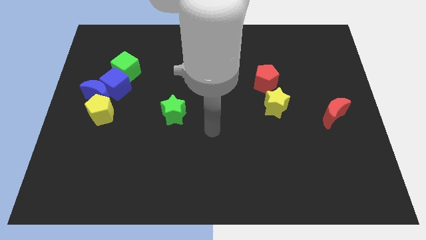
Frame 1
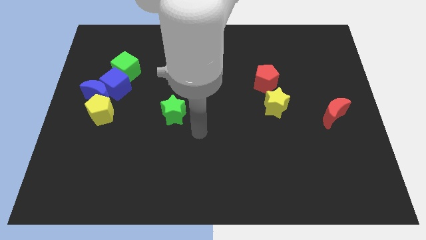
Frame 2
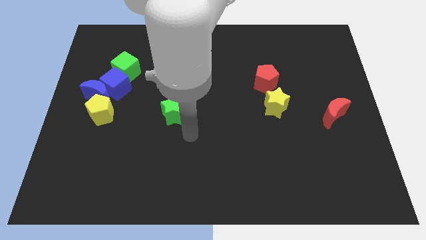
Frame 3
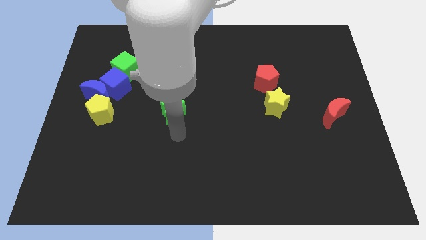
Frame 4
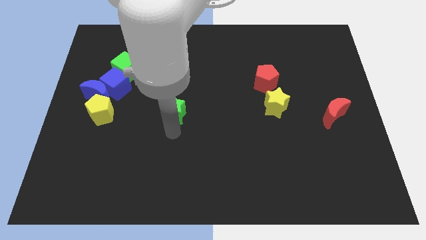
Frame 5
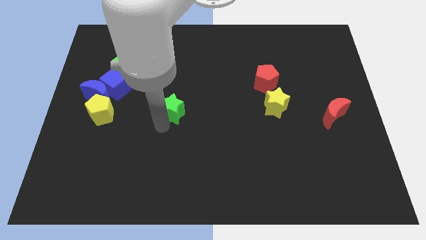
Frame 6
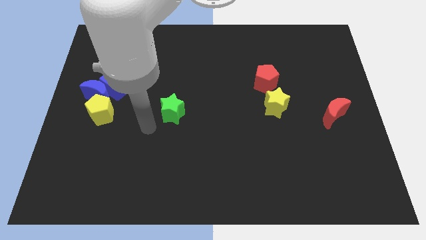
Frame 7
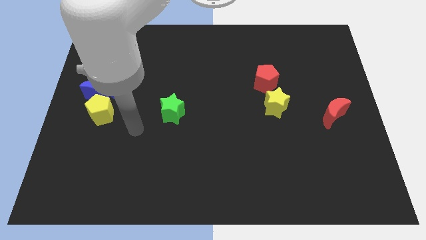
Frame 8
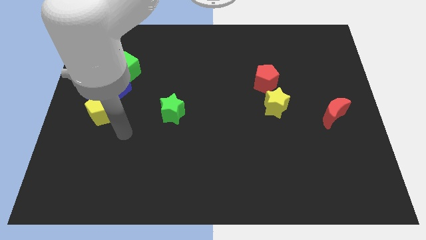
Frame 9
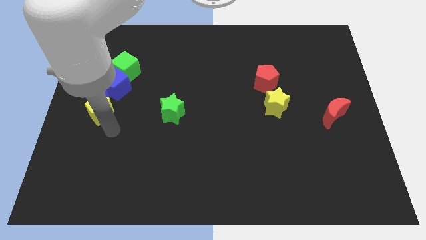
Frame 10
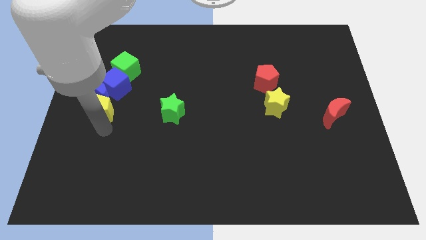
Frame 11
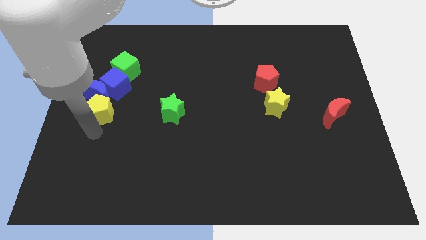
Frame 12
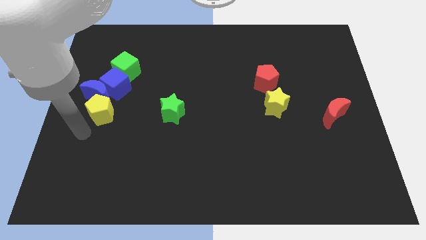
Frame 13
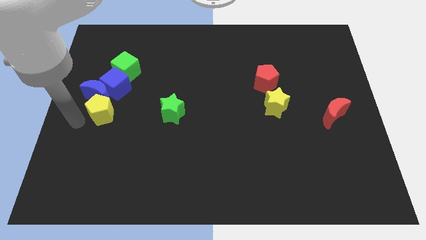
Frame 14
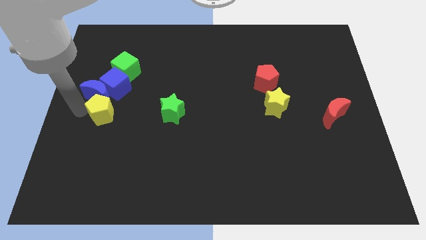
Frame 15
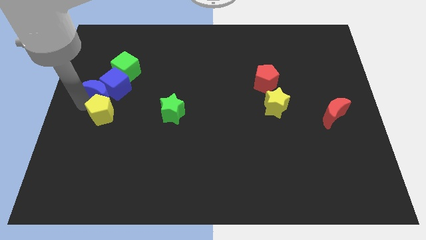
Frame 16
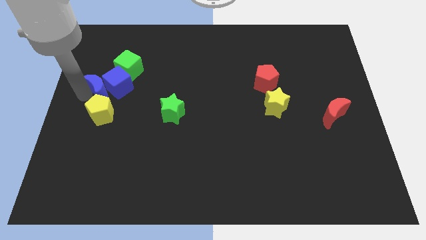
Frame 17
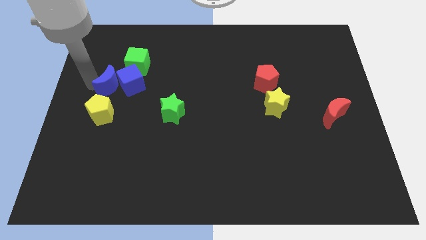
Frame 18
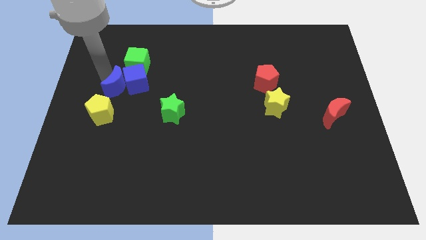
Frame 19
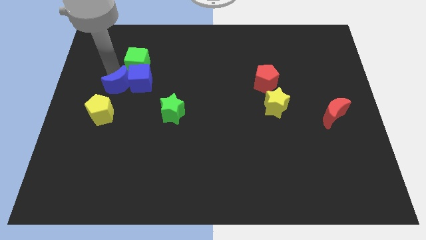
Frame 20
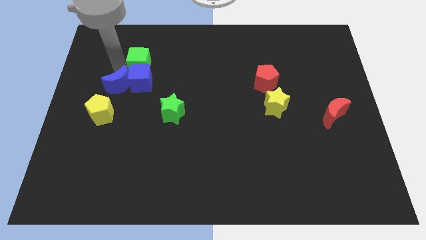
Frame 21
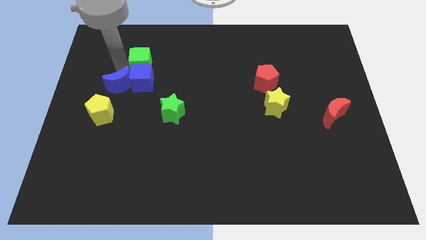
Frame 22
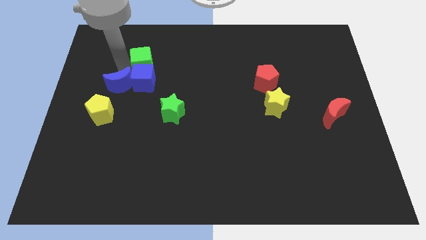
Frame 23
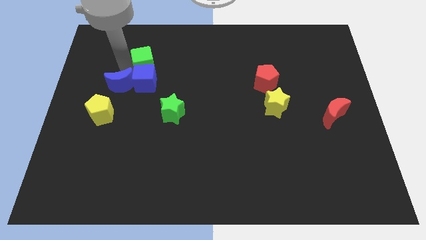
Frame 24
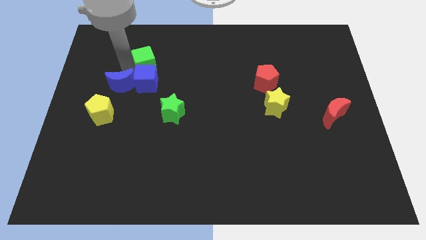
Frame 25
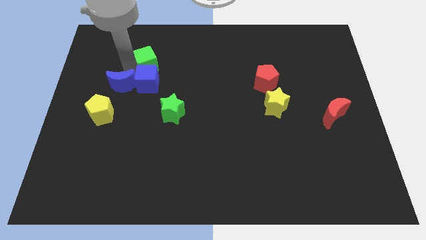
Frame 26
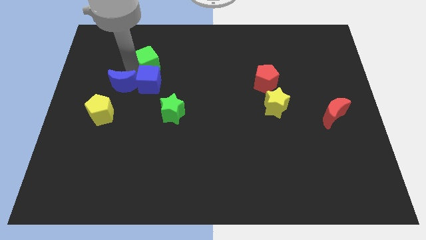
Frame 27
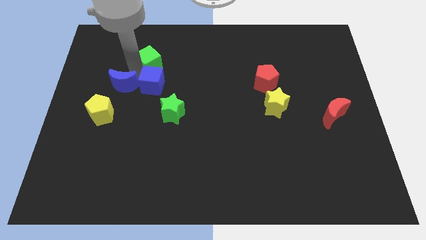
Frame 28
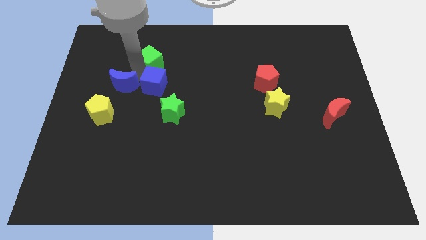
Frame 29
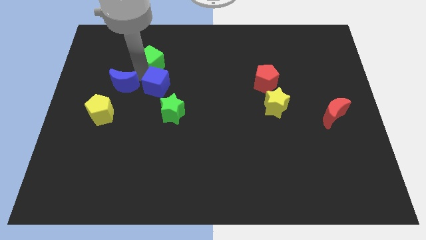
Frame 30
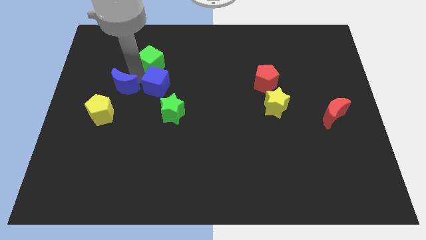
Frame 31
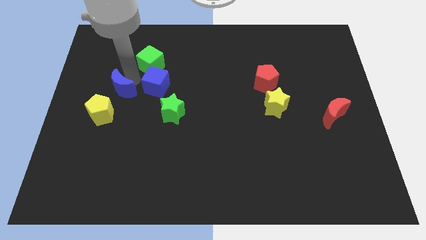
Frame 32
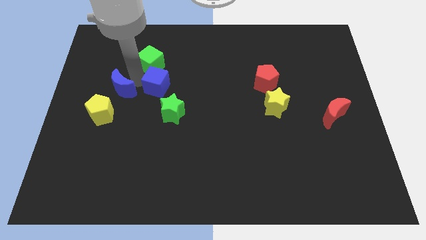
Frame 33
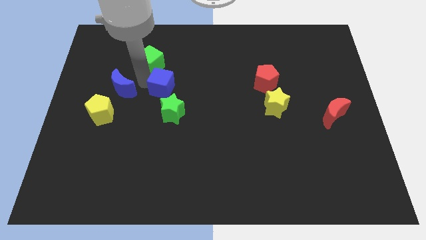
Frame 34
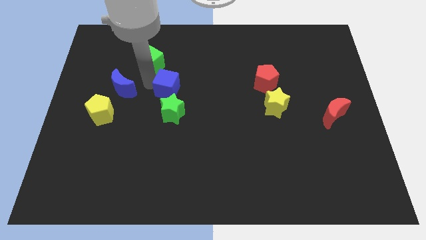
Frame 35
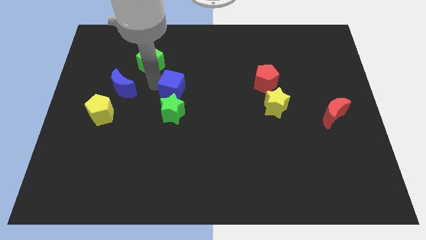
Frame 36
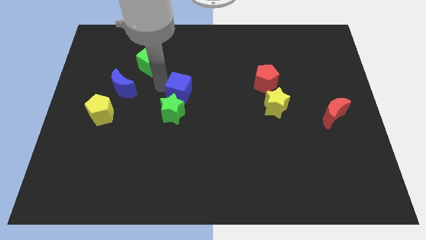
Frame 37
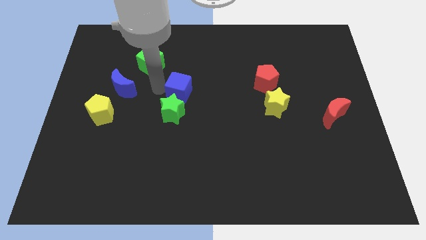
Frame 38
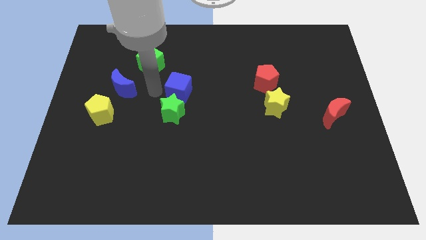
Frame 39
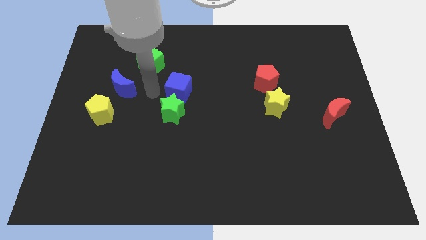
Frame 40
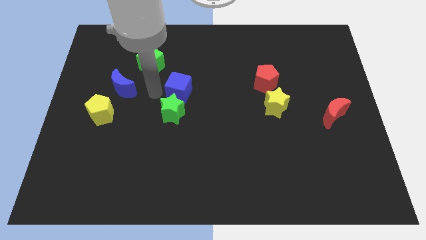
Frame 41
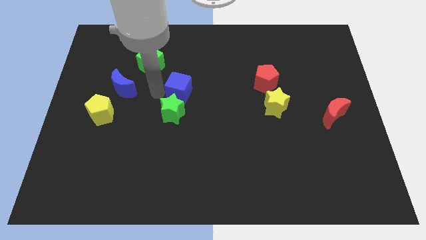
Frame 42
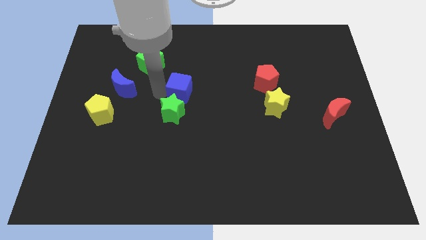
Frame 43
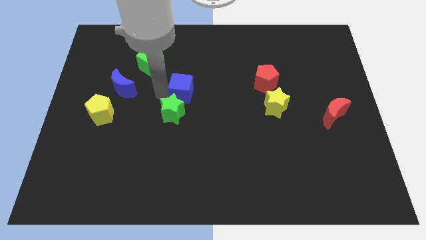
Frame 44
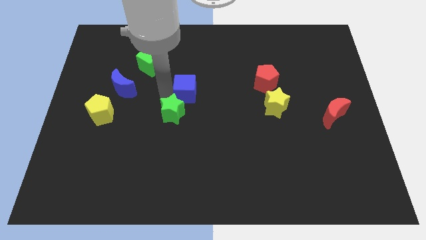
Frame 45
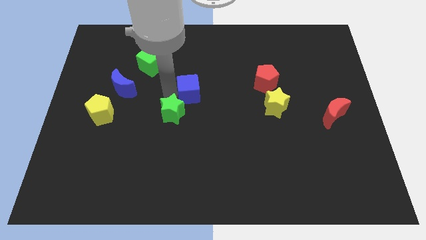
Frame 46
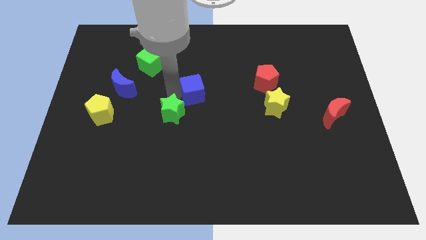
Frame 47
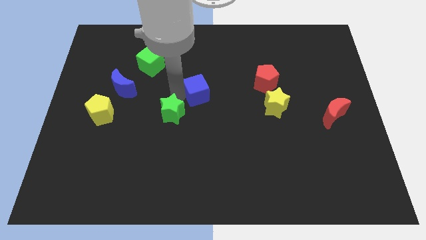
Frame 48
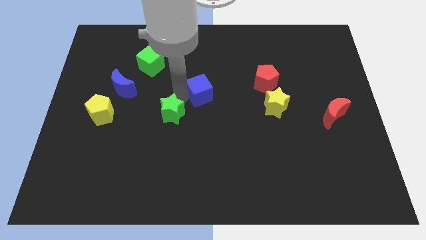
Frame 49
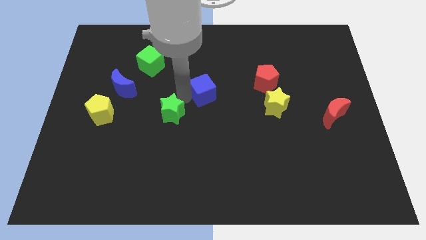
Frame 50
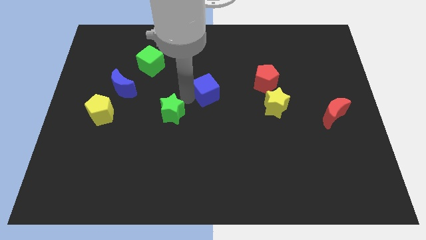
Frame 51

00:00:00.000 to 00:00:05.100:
slide the blue cube to the left side of the red pentagon

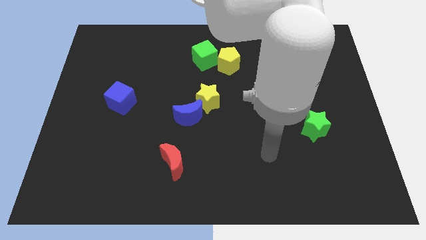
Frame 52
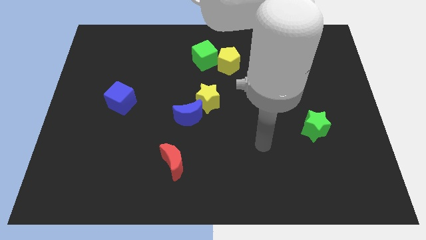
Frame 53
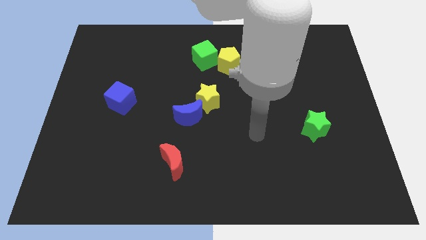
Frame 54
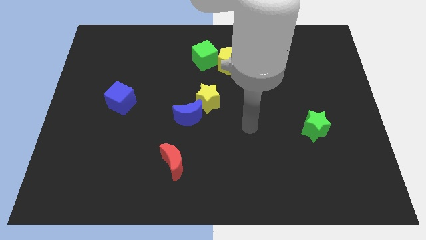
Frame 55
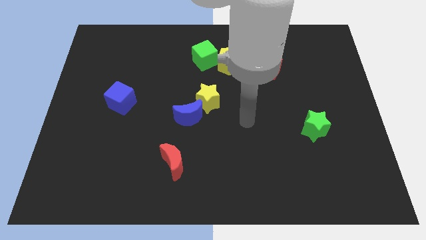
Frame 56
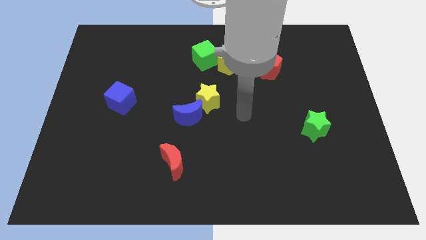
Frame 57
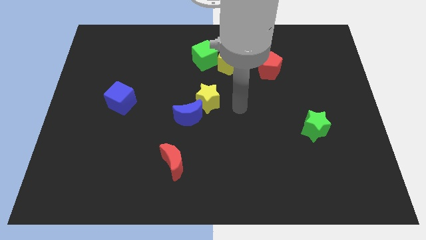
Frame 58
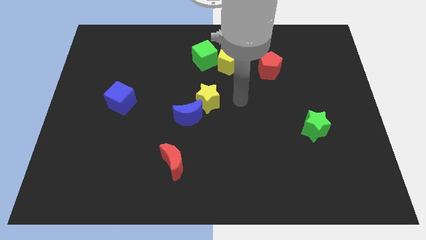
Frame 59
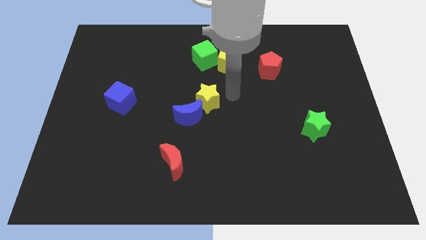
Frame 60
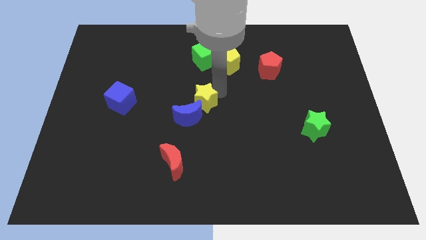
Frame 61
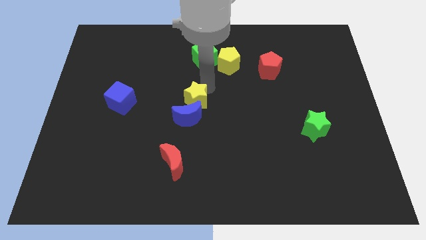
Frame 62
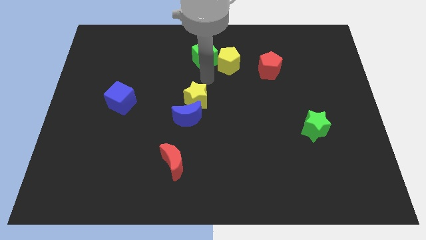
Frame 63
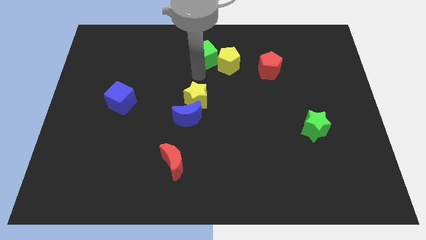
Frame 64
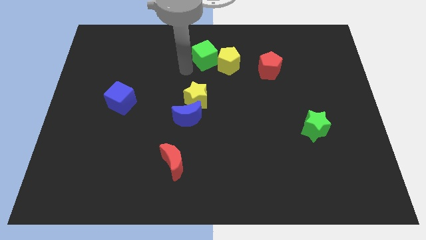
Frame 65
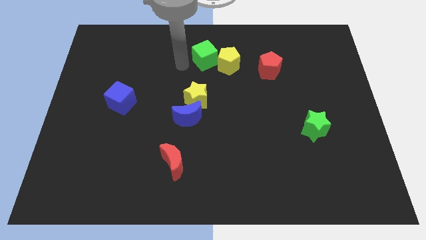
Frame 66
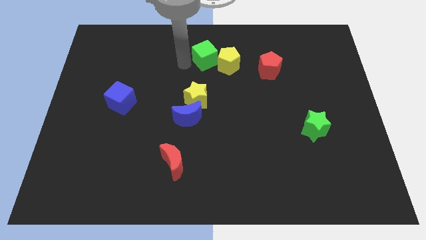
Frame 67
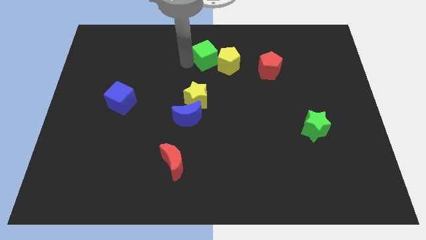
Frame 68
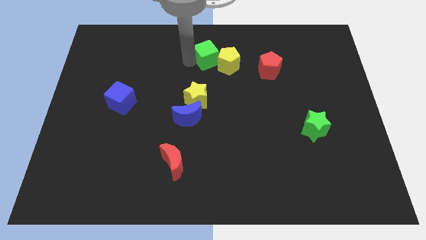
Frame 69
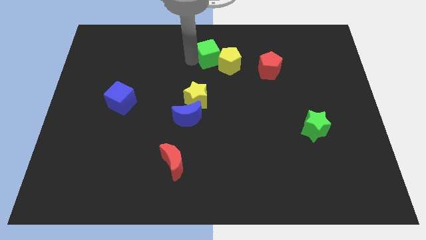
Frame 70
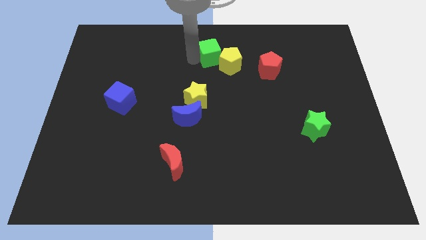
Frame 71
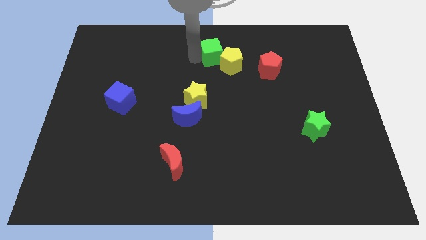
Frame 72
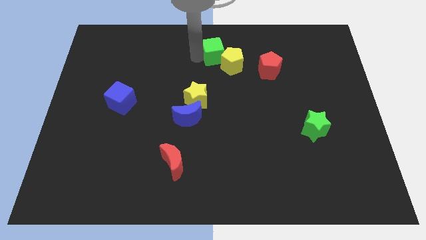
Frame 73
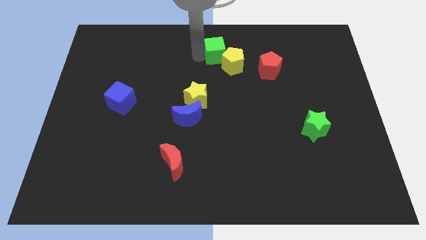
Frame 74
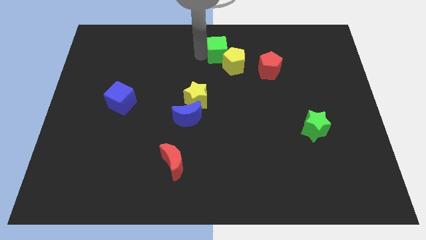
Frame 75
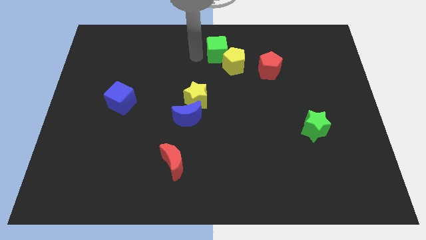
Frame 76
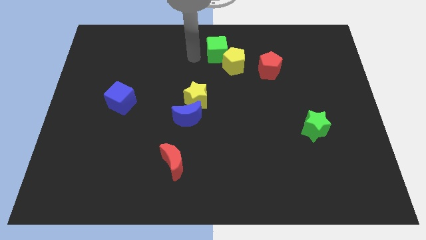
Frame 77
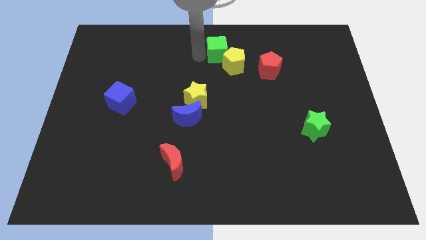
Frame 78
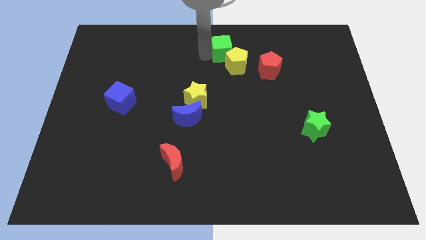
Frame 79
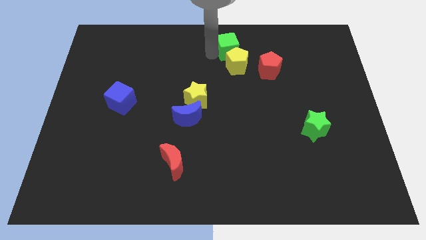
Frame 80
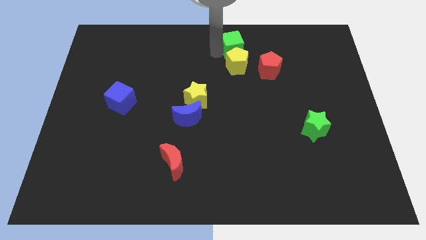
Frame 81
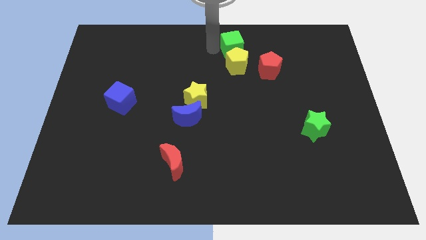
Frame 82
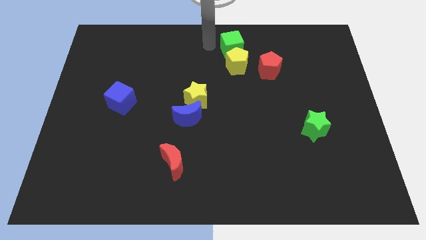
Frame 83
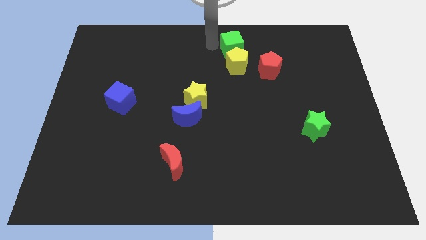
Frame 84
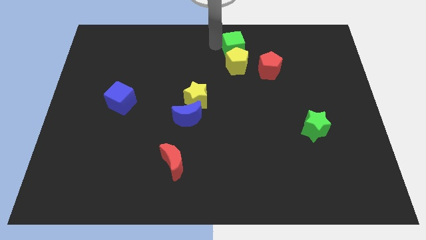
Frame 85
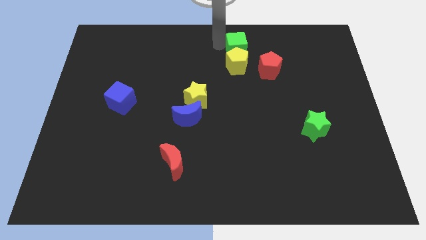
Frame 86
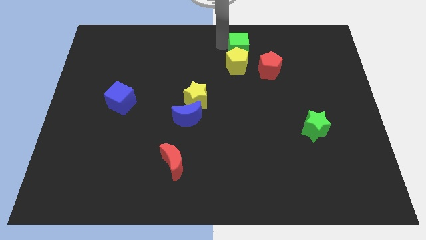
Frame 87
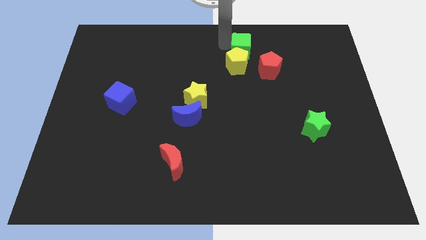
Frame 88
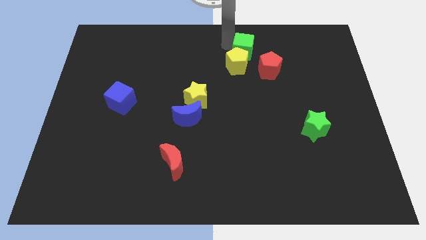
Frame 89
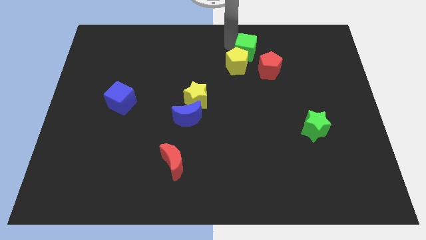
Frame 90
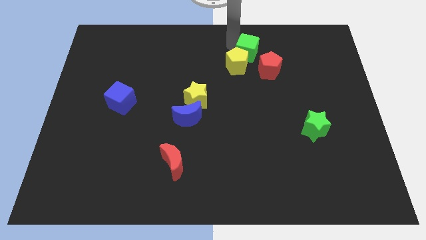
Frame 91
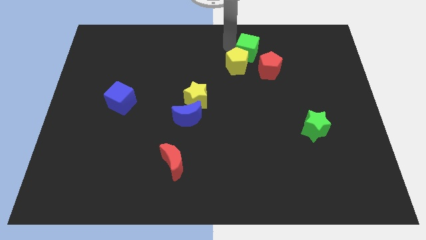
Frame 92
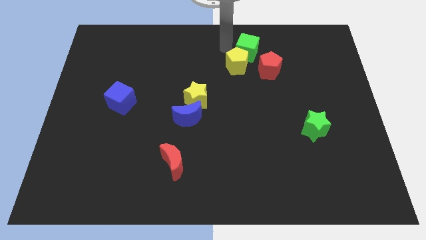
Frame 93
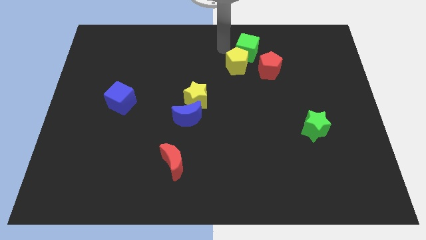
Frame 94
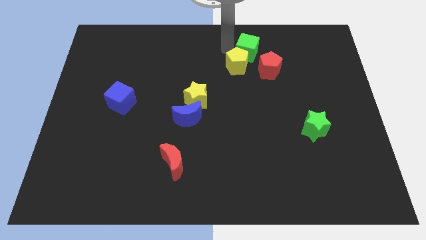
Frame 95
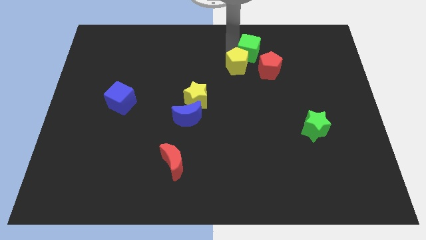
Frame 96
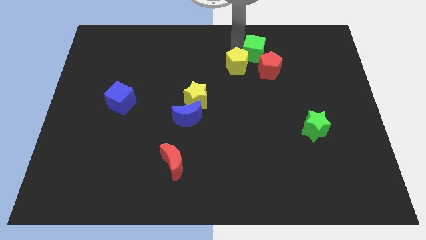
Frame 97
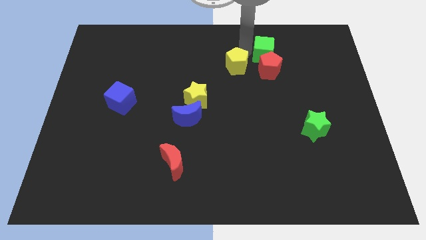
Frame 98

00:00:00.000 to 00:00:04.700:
slide the green cube diagonally up and to the right of the red pentagon
